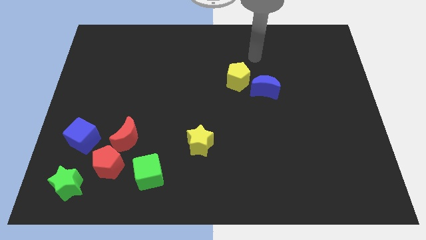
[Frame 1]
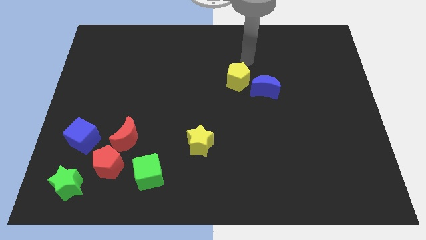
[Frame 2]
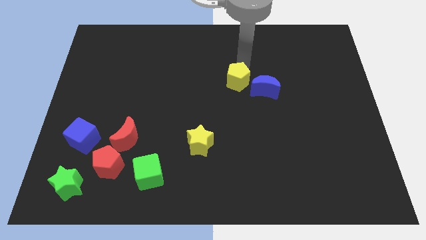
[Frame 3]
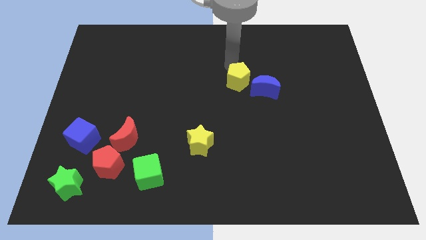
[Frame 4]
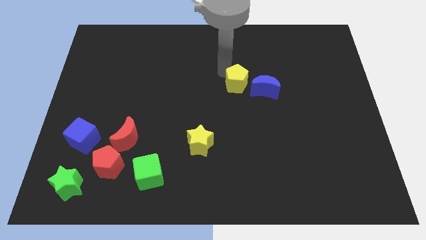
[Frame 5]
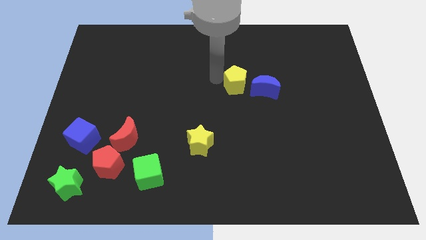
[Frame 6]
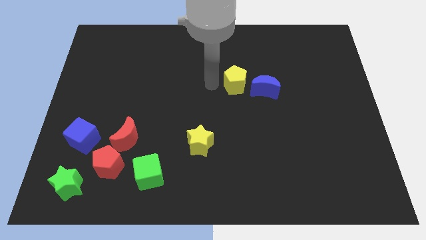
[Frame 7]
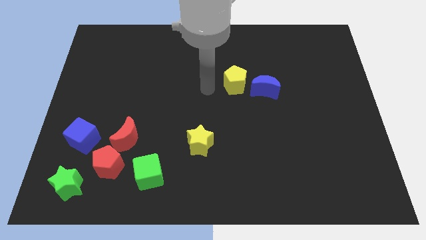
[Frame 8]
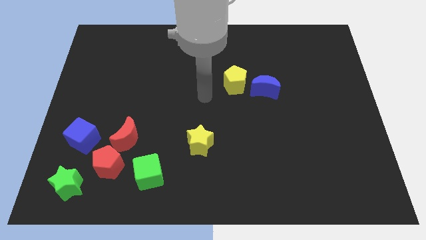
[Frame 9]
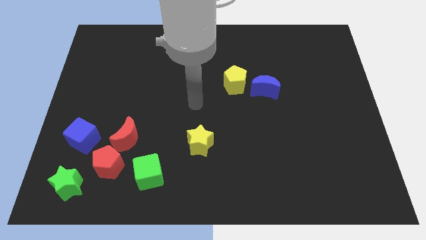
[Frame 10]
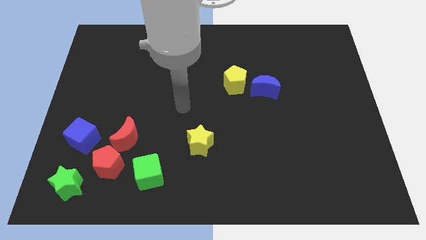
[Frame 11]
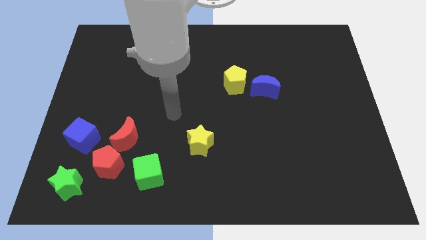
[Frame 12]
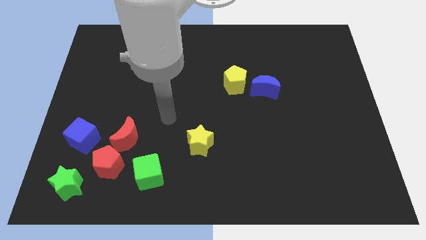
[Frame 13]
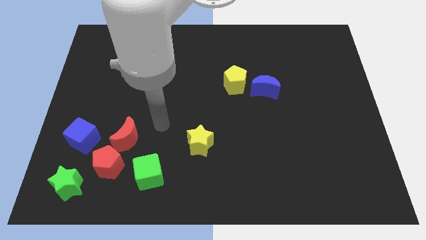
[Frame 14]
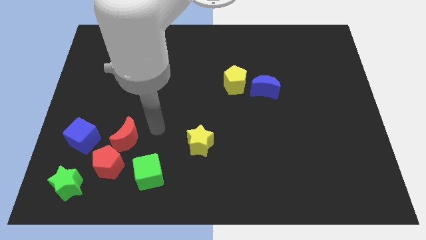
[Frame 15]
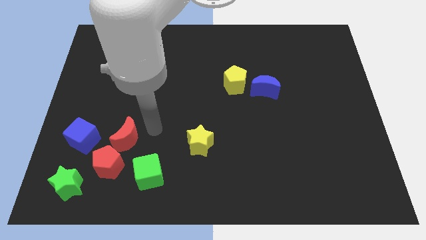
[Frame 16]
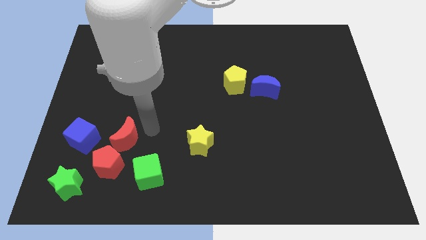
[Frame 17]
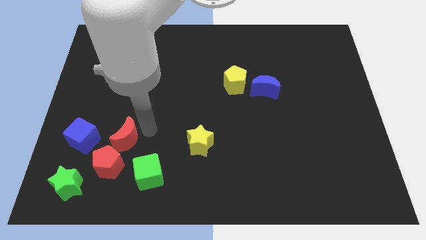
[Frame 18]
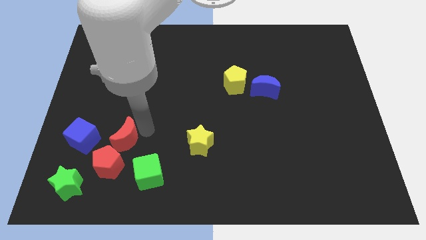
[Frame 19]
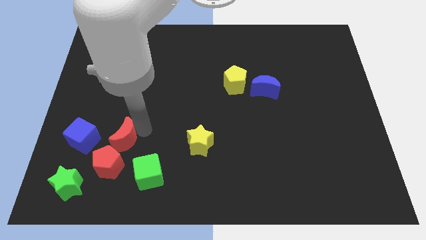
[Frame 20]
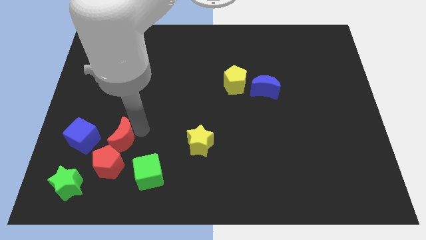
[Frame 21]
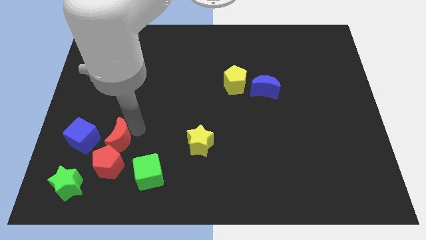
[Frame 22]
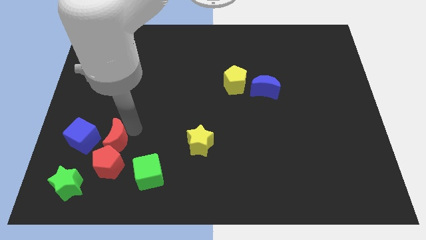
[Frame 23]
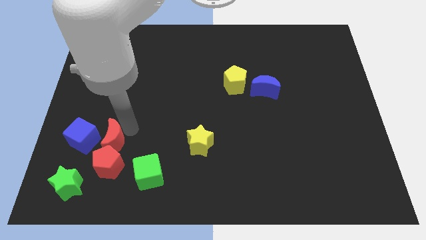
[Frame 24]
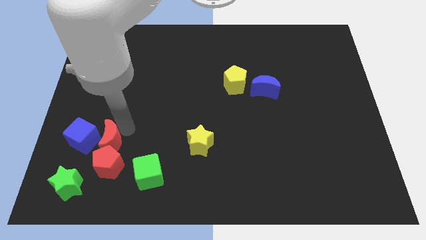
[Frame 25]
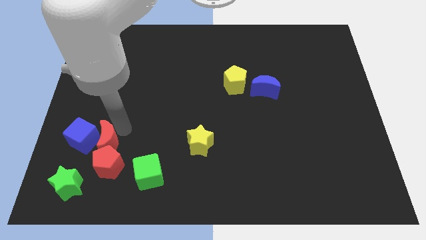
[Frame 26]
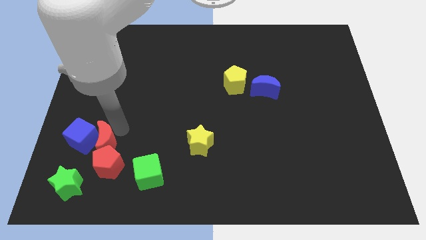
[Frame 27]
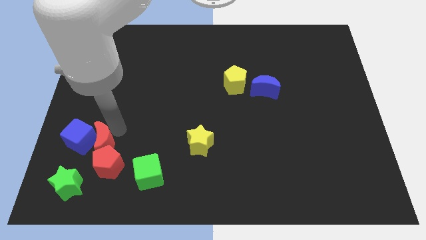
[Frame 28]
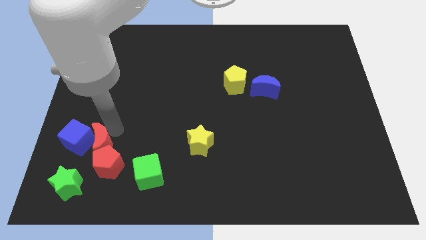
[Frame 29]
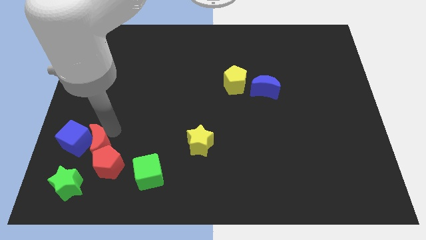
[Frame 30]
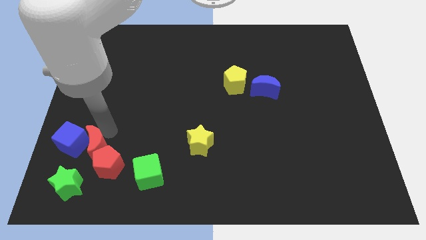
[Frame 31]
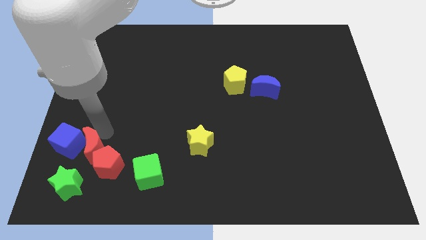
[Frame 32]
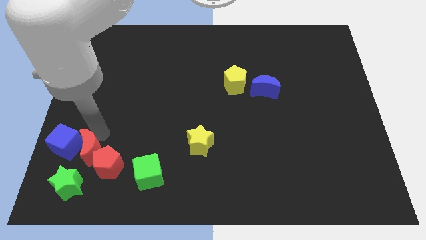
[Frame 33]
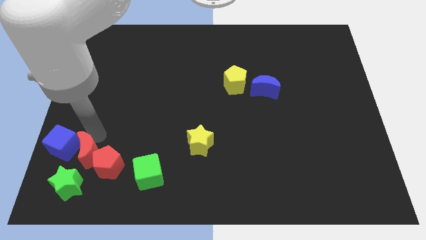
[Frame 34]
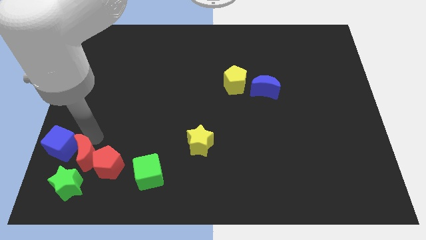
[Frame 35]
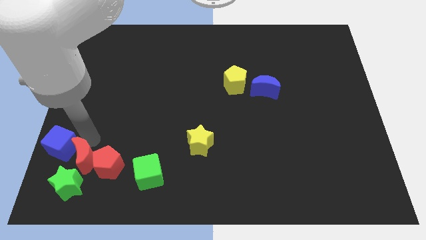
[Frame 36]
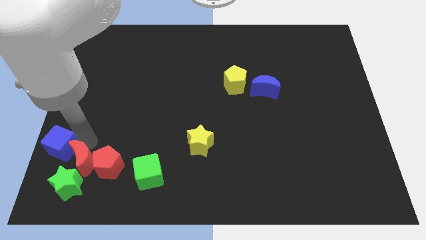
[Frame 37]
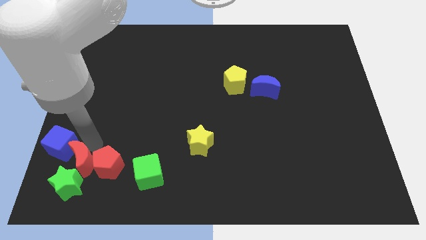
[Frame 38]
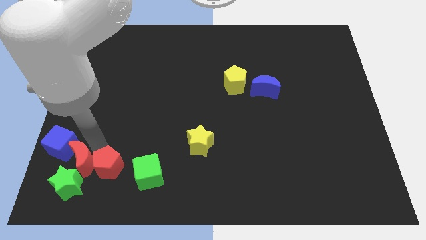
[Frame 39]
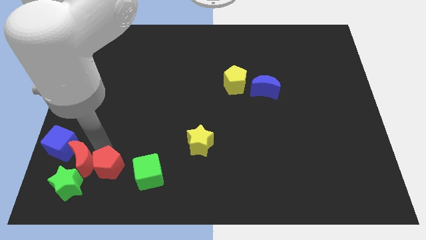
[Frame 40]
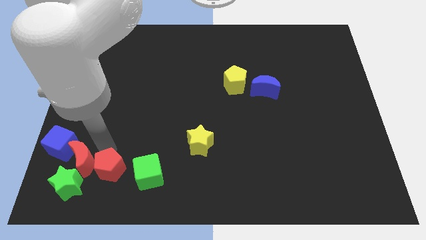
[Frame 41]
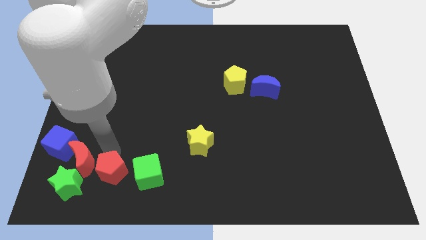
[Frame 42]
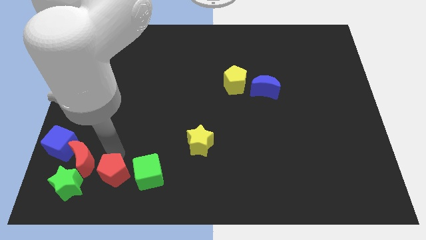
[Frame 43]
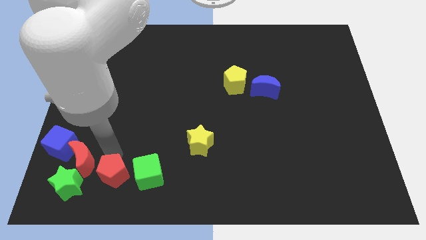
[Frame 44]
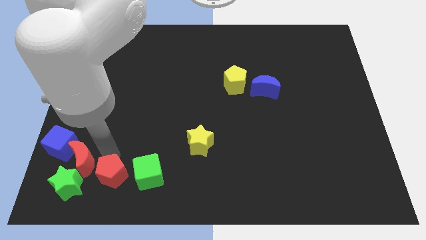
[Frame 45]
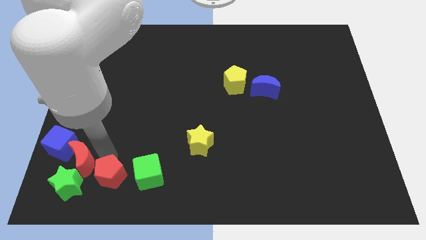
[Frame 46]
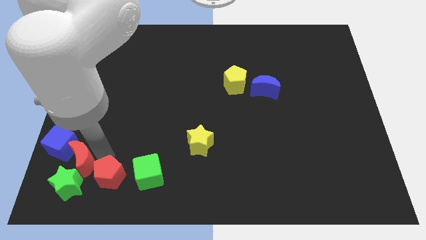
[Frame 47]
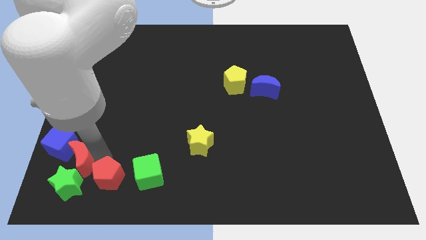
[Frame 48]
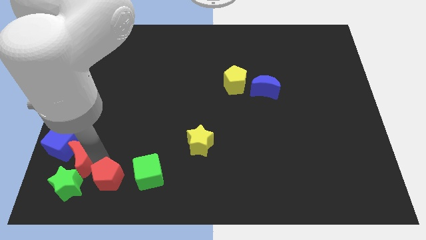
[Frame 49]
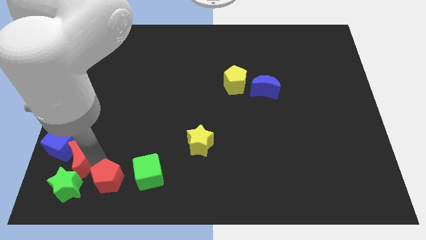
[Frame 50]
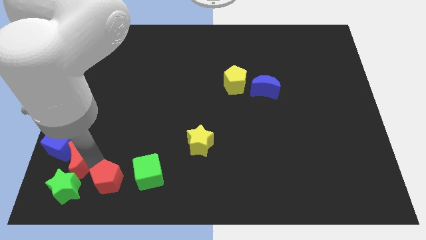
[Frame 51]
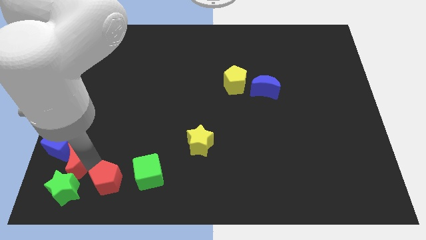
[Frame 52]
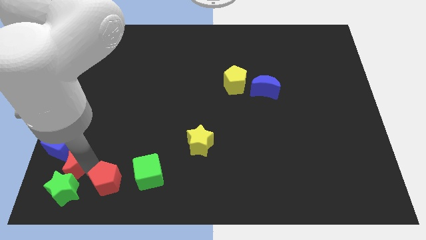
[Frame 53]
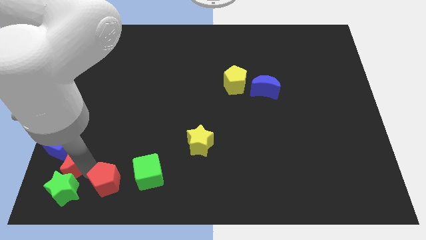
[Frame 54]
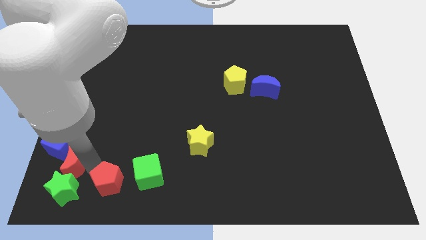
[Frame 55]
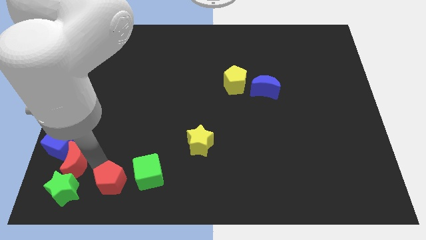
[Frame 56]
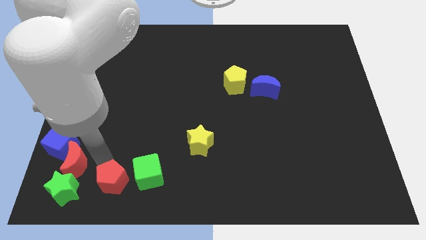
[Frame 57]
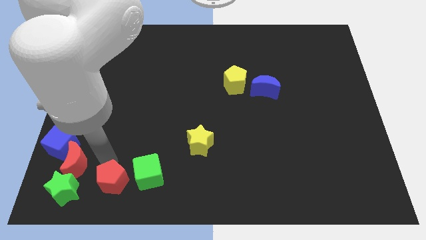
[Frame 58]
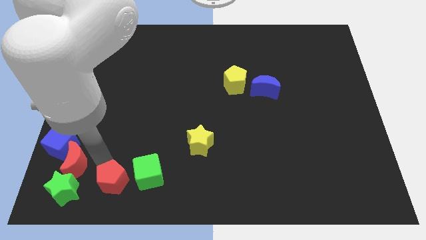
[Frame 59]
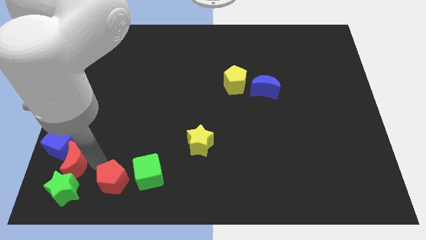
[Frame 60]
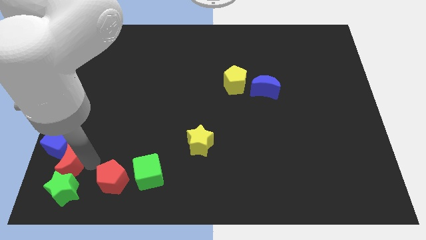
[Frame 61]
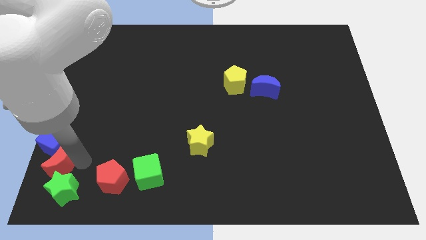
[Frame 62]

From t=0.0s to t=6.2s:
slide the red moon to the bottom left corner
